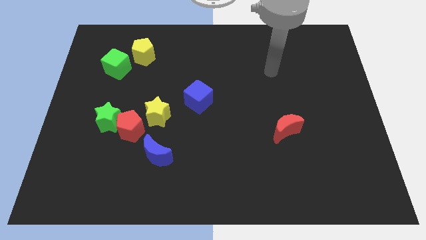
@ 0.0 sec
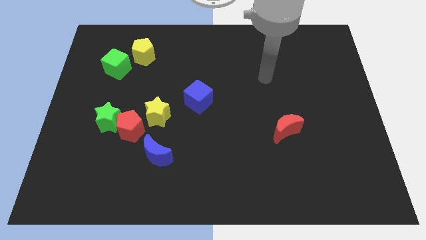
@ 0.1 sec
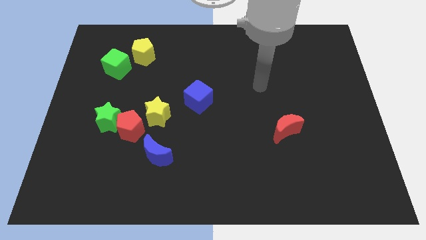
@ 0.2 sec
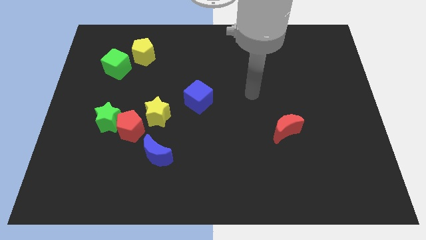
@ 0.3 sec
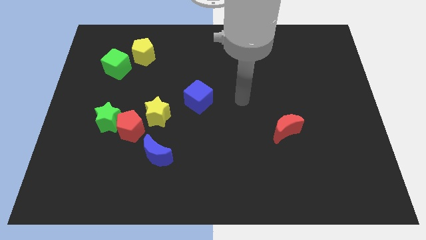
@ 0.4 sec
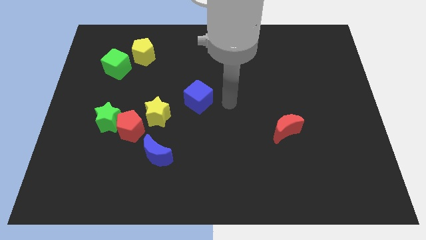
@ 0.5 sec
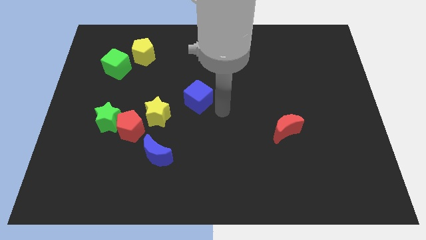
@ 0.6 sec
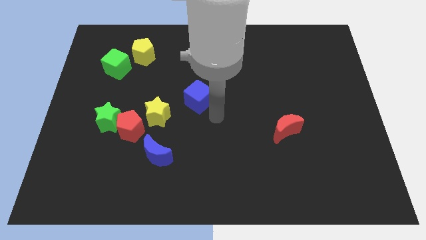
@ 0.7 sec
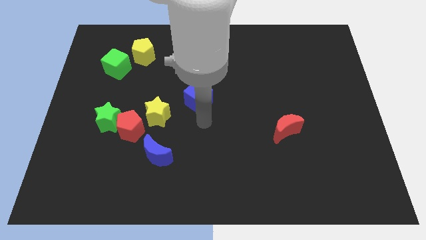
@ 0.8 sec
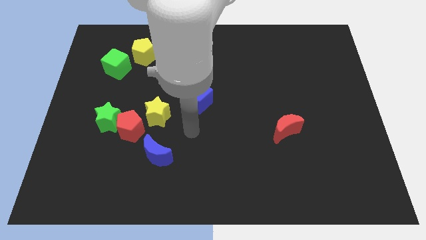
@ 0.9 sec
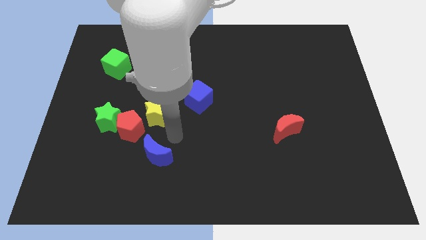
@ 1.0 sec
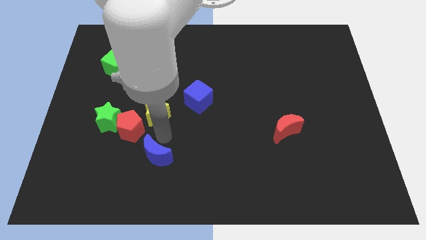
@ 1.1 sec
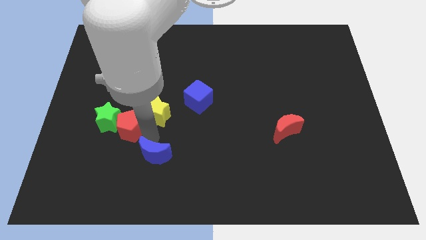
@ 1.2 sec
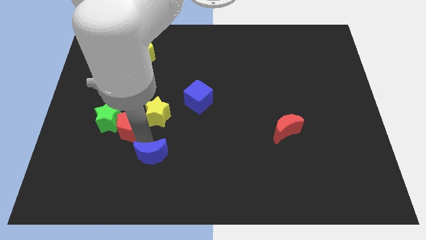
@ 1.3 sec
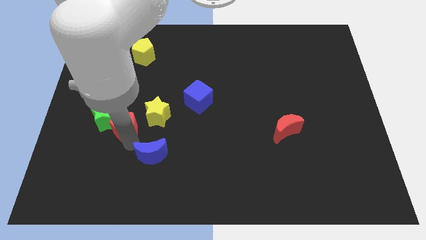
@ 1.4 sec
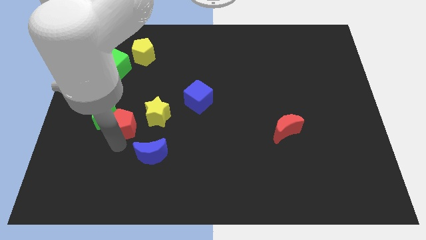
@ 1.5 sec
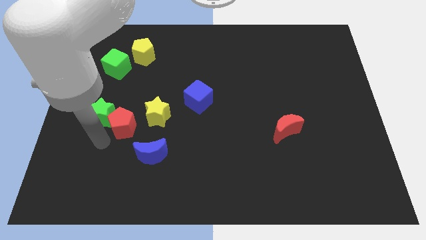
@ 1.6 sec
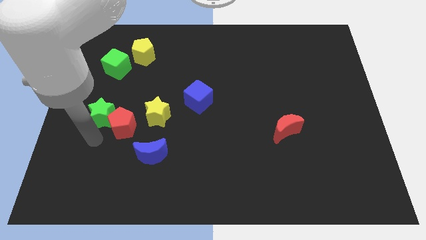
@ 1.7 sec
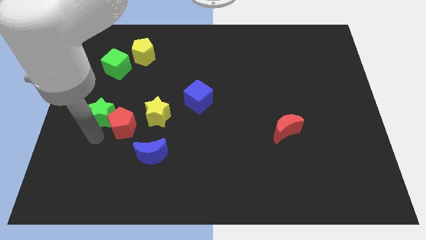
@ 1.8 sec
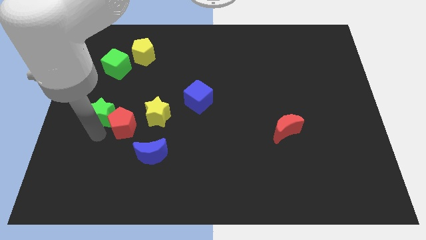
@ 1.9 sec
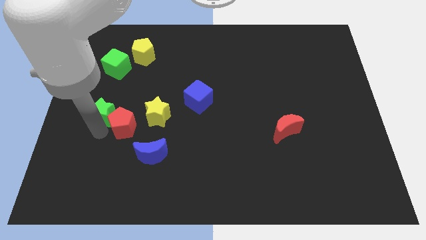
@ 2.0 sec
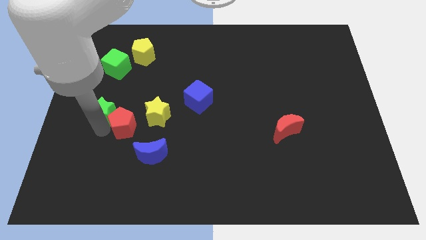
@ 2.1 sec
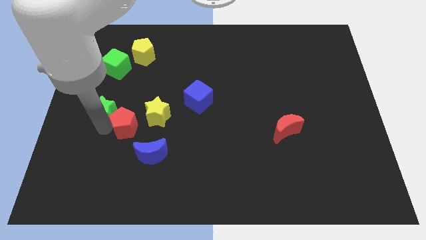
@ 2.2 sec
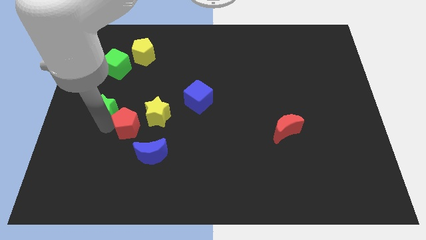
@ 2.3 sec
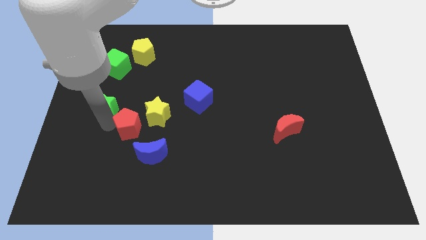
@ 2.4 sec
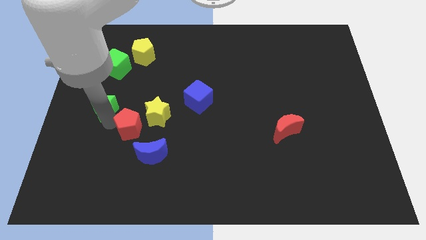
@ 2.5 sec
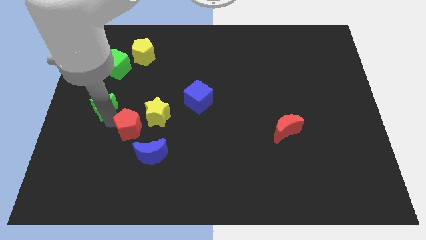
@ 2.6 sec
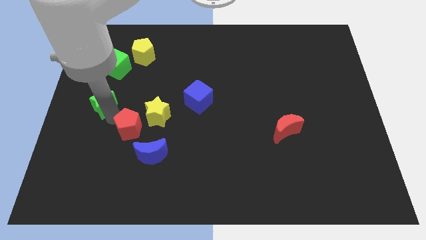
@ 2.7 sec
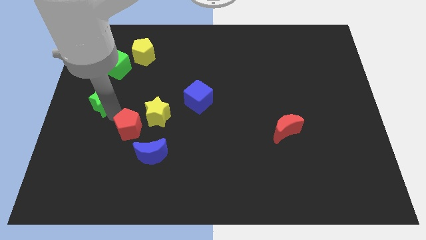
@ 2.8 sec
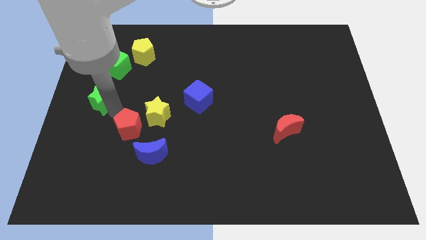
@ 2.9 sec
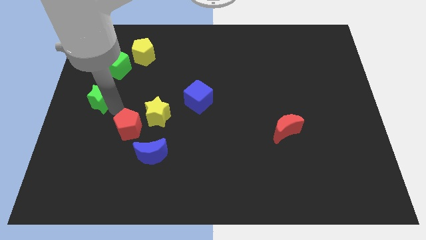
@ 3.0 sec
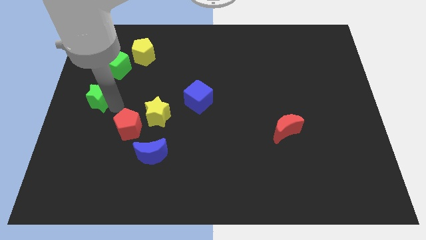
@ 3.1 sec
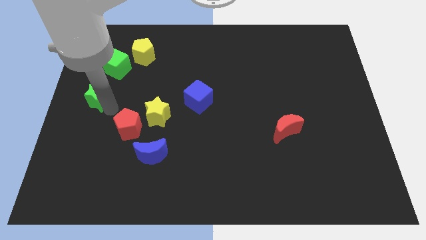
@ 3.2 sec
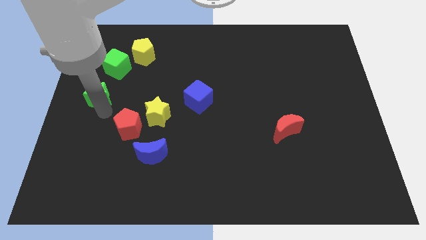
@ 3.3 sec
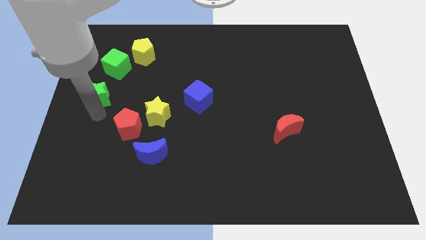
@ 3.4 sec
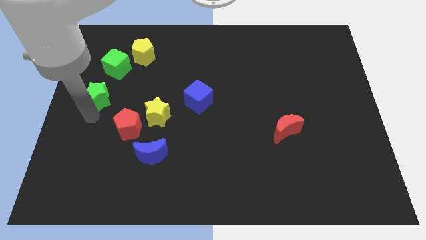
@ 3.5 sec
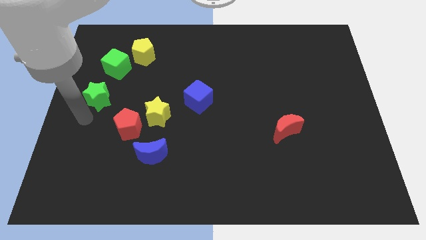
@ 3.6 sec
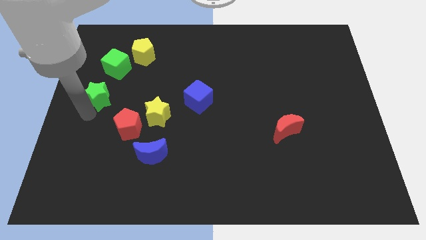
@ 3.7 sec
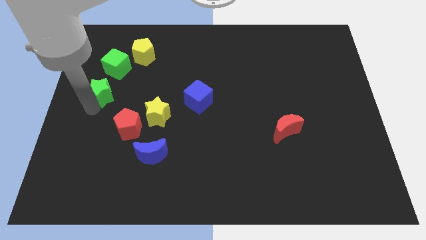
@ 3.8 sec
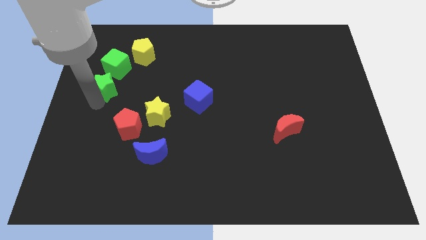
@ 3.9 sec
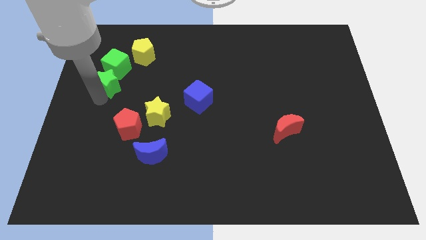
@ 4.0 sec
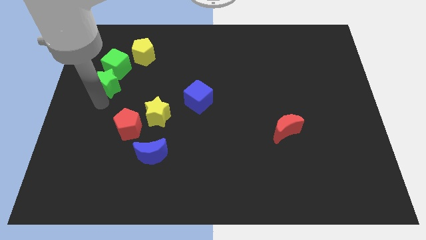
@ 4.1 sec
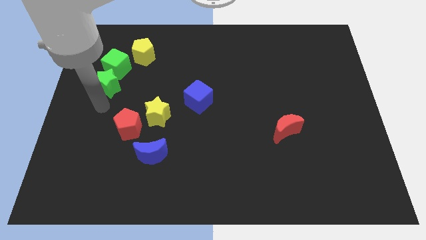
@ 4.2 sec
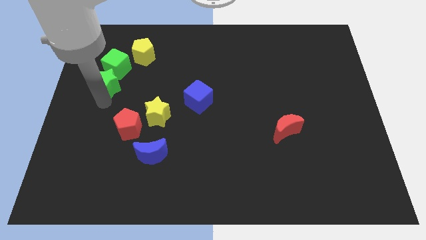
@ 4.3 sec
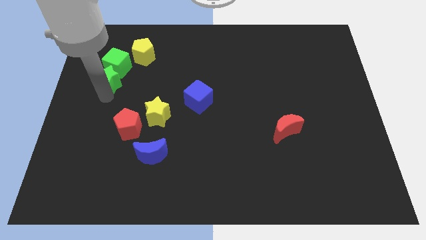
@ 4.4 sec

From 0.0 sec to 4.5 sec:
put the green star close to the green cube

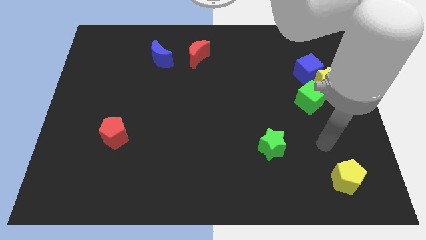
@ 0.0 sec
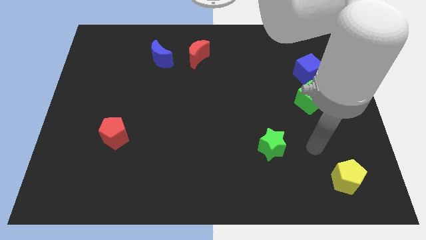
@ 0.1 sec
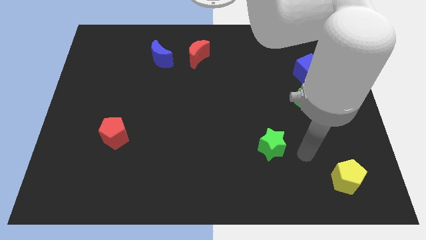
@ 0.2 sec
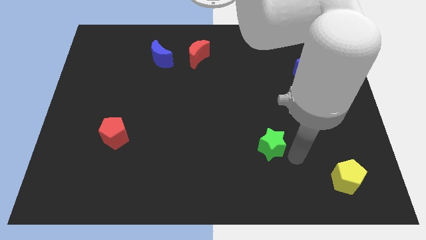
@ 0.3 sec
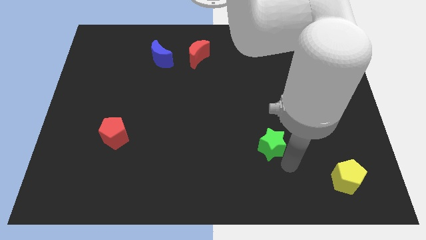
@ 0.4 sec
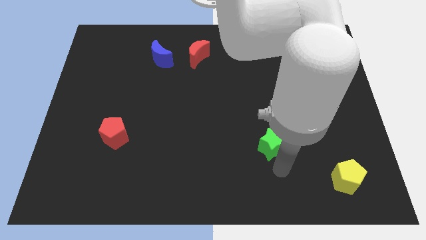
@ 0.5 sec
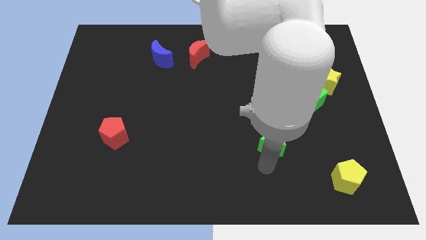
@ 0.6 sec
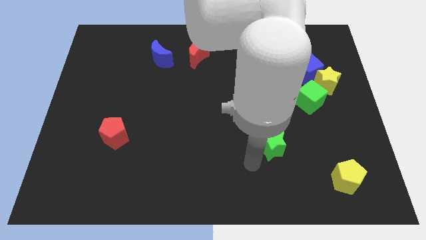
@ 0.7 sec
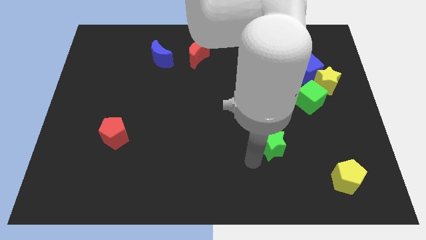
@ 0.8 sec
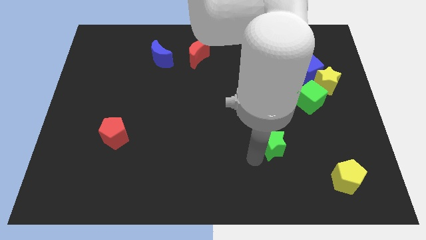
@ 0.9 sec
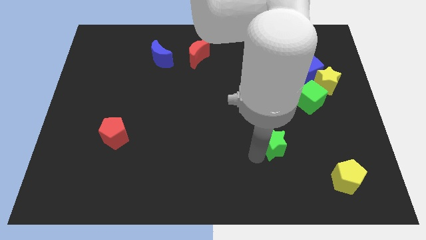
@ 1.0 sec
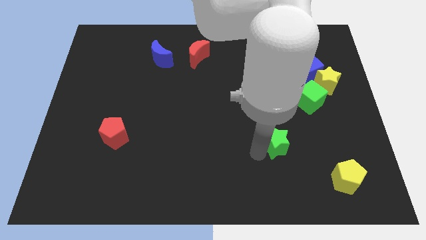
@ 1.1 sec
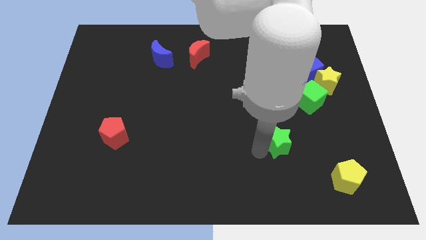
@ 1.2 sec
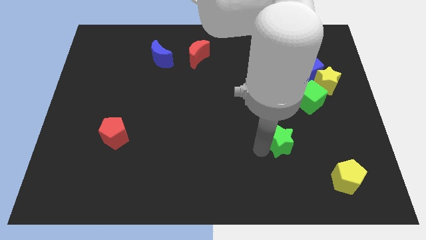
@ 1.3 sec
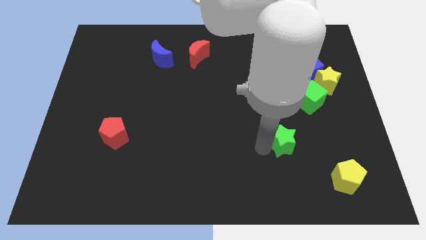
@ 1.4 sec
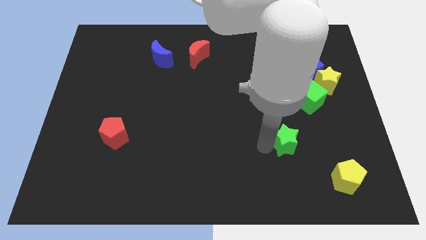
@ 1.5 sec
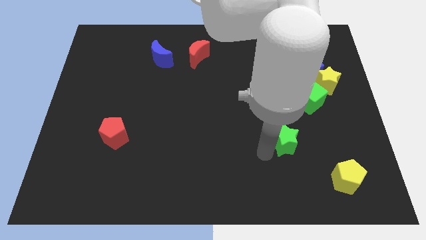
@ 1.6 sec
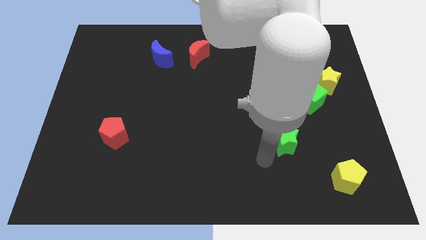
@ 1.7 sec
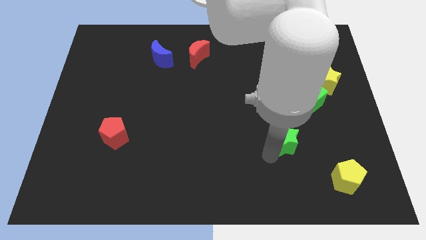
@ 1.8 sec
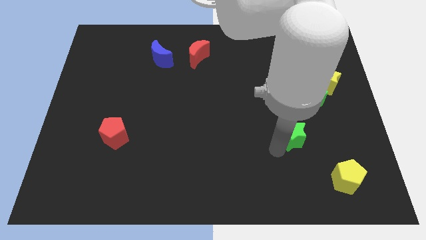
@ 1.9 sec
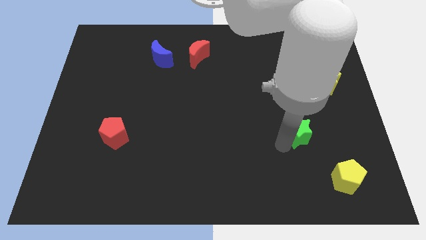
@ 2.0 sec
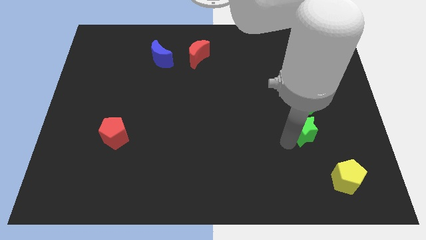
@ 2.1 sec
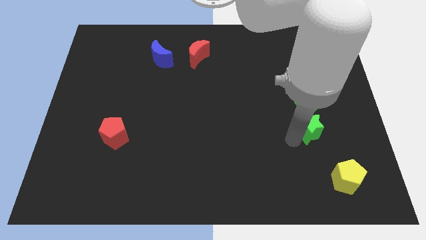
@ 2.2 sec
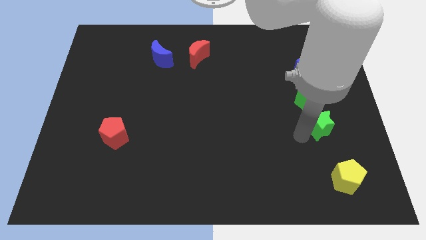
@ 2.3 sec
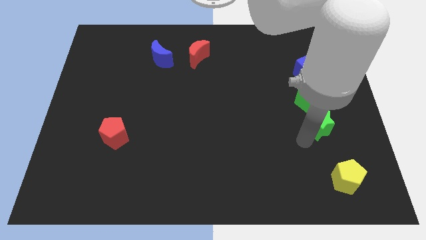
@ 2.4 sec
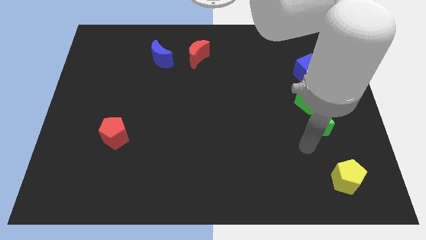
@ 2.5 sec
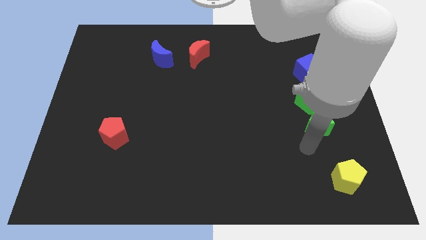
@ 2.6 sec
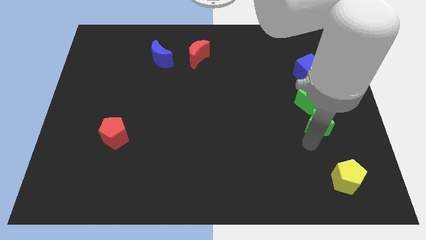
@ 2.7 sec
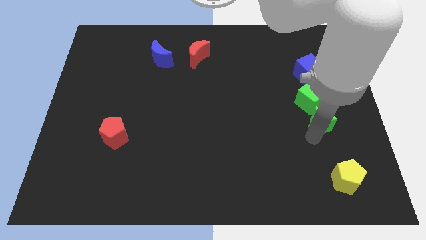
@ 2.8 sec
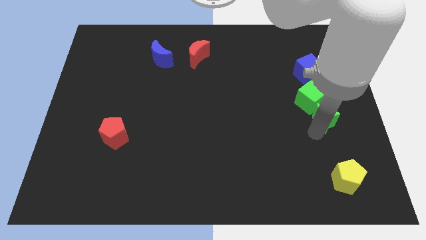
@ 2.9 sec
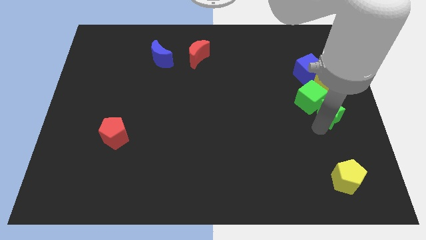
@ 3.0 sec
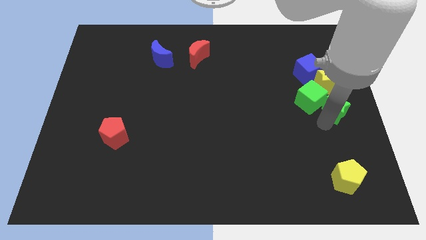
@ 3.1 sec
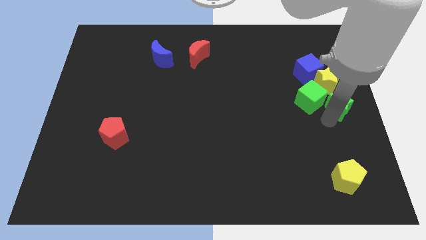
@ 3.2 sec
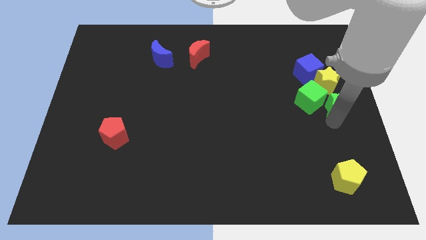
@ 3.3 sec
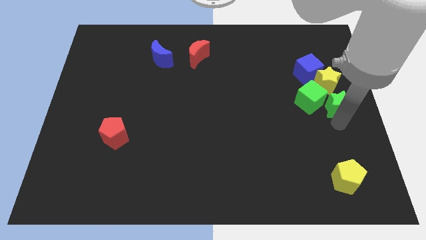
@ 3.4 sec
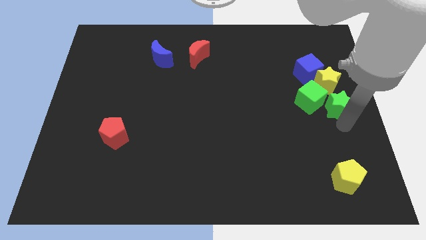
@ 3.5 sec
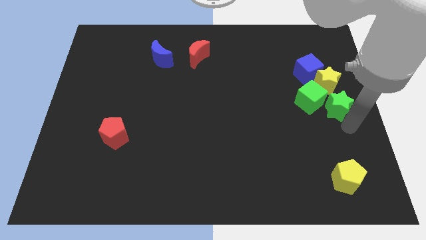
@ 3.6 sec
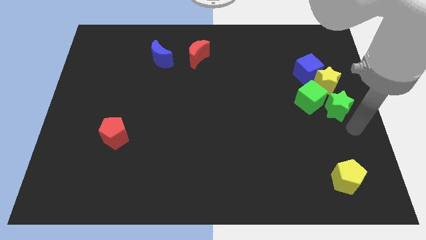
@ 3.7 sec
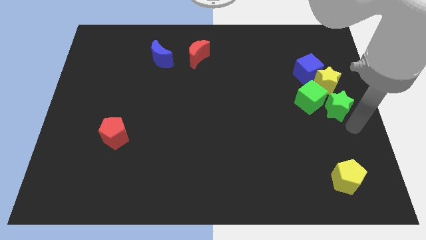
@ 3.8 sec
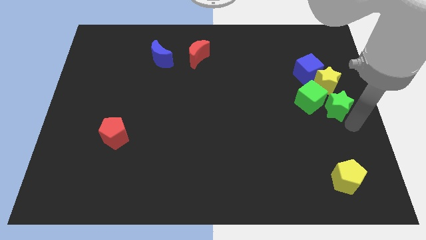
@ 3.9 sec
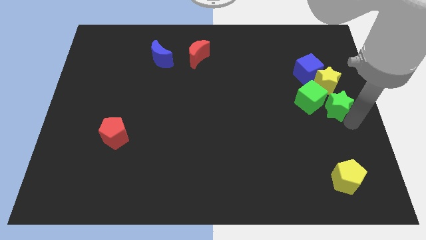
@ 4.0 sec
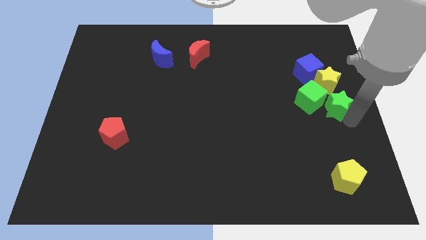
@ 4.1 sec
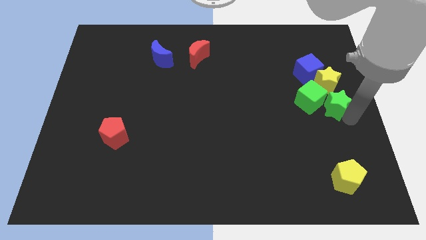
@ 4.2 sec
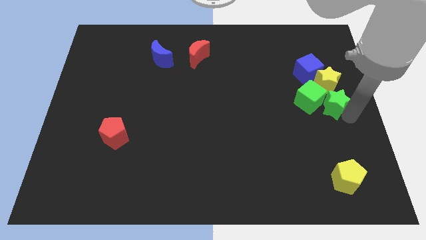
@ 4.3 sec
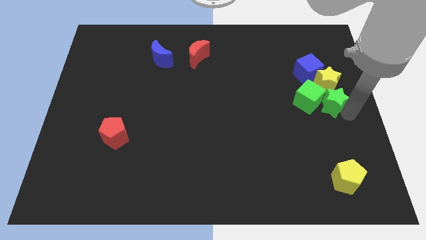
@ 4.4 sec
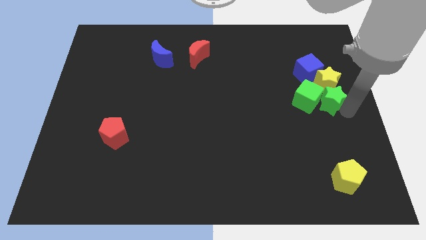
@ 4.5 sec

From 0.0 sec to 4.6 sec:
put the green star towards the yellow star
